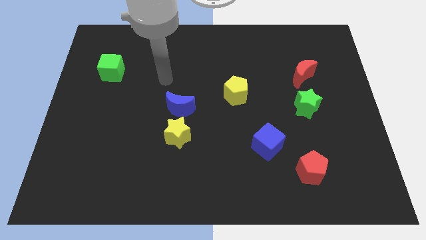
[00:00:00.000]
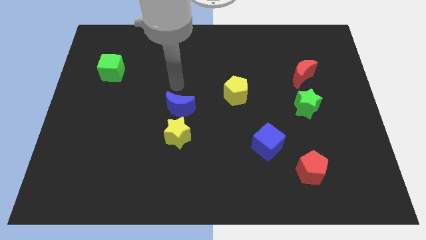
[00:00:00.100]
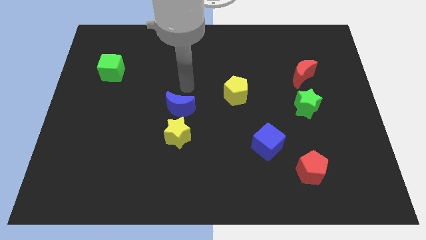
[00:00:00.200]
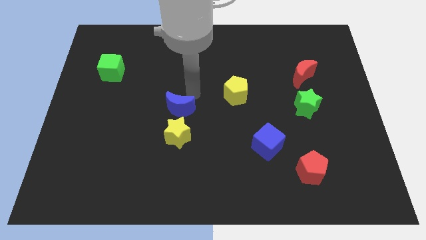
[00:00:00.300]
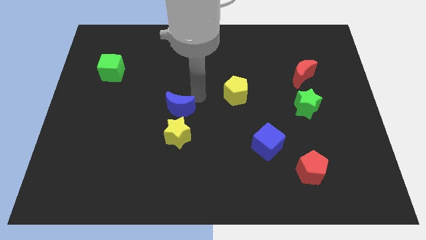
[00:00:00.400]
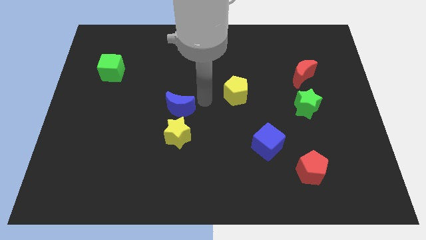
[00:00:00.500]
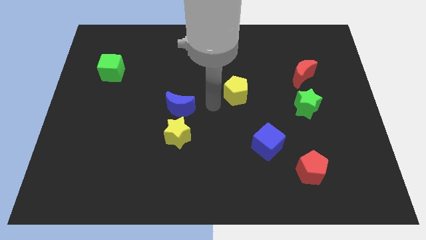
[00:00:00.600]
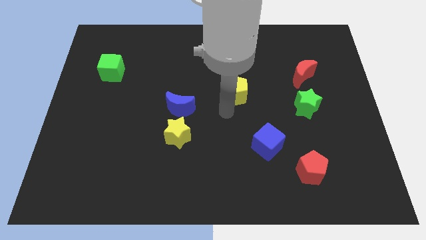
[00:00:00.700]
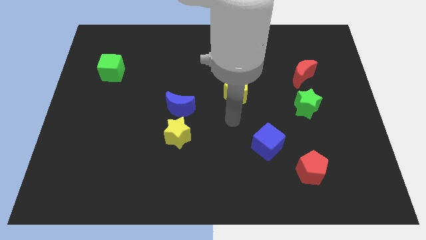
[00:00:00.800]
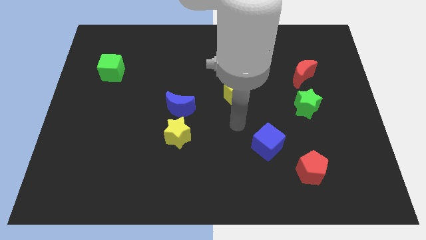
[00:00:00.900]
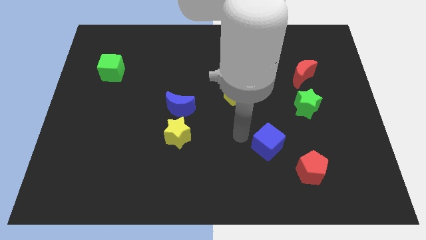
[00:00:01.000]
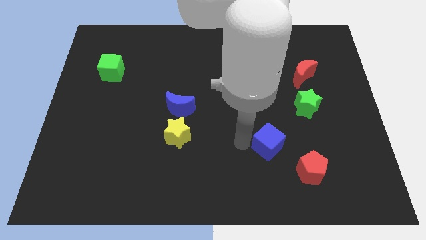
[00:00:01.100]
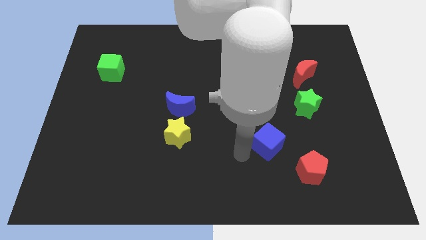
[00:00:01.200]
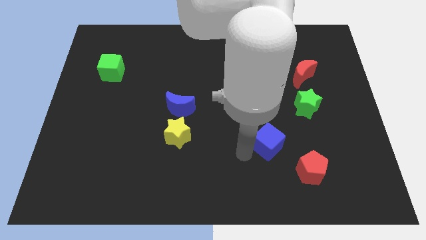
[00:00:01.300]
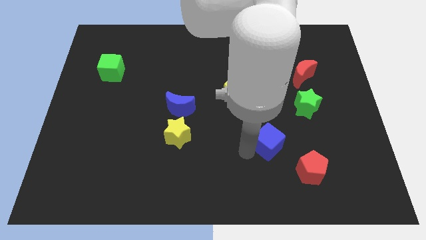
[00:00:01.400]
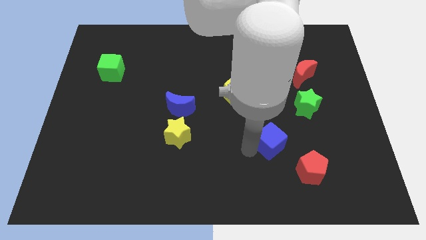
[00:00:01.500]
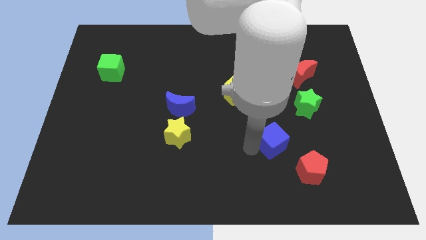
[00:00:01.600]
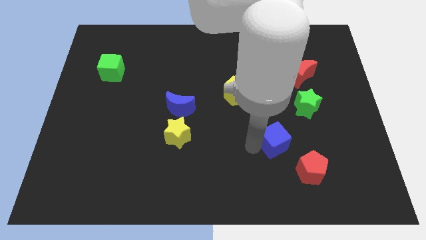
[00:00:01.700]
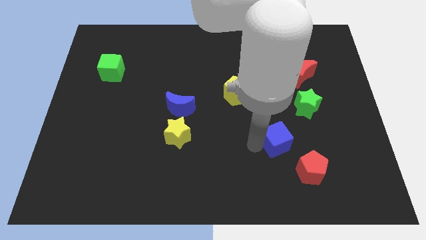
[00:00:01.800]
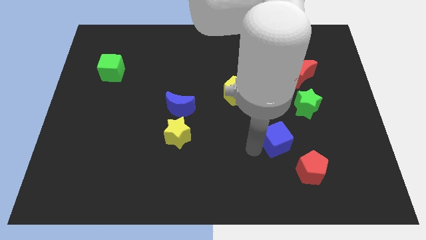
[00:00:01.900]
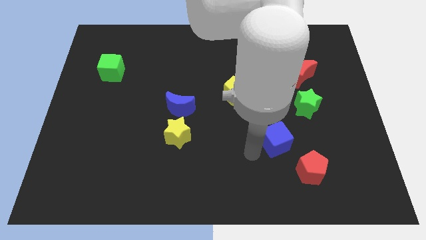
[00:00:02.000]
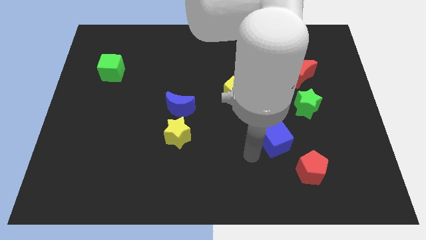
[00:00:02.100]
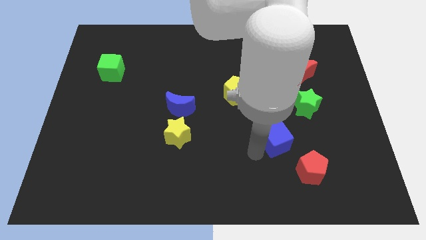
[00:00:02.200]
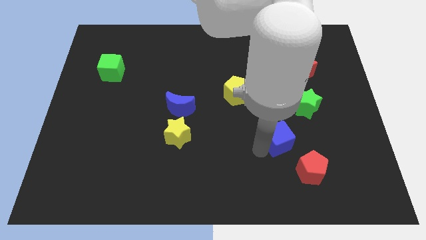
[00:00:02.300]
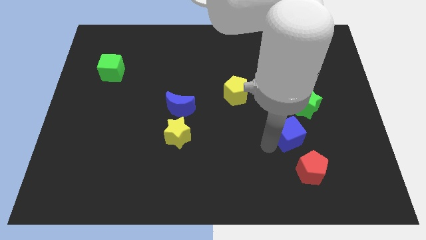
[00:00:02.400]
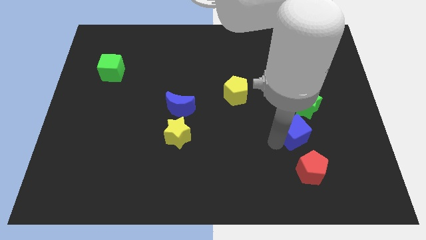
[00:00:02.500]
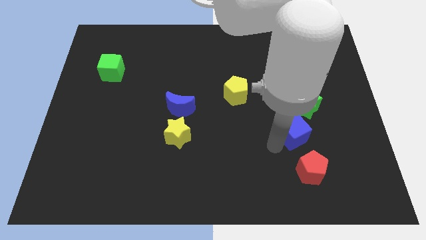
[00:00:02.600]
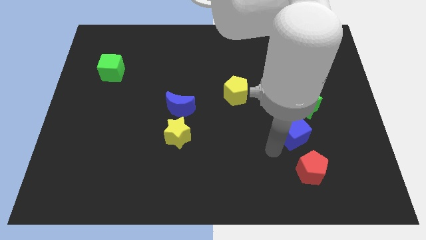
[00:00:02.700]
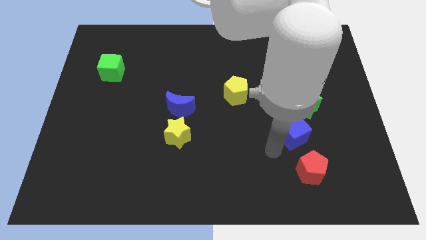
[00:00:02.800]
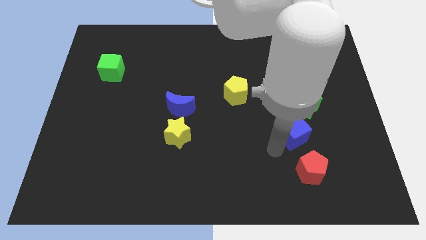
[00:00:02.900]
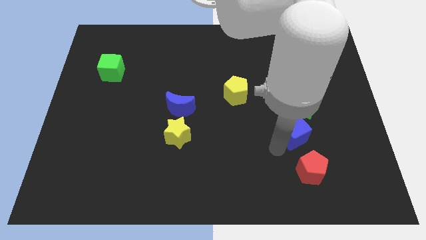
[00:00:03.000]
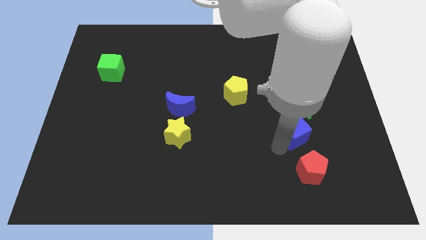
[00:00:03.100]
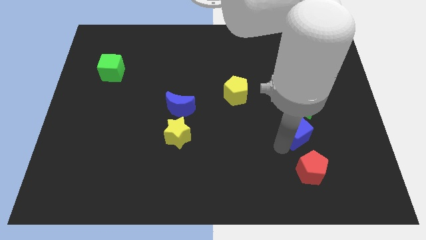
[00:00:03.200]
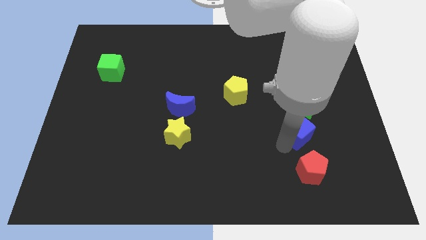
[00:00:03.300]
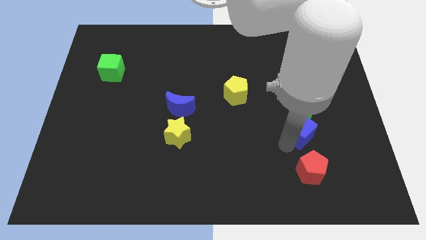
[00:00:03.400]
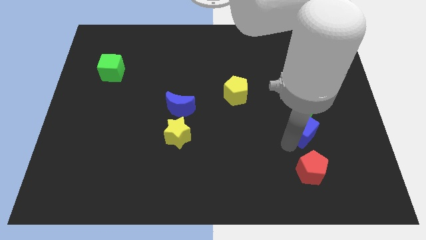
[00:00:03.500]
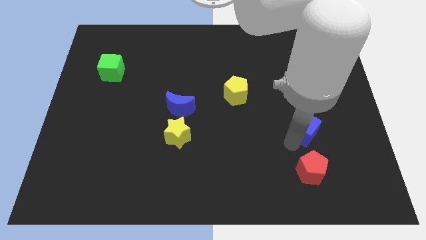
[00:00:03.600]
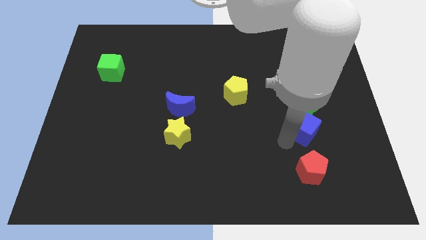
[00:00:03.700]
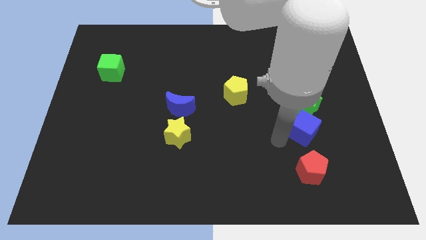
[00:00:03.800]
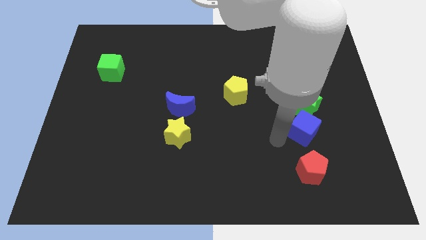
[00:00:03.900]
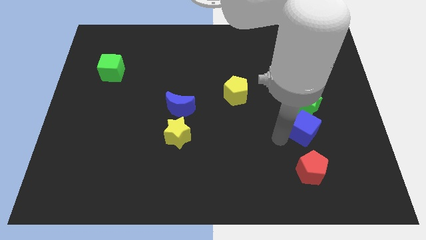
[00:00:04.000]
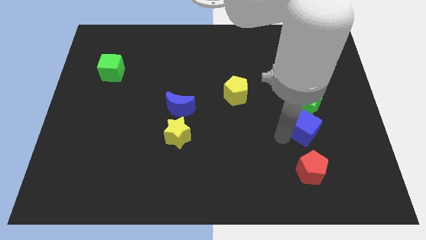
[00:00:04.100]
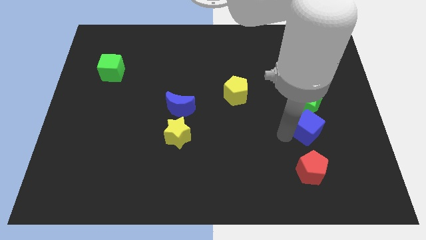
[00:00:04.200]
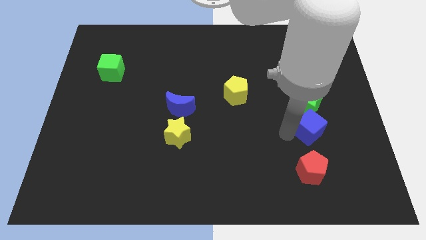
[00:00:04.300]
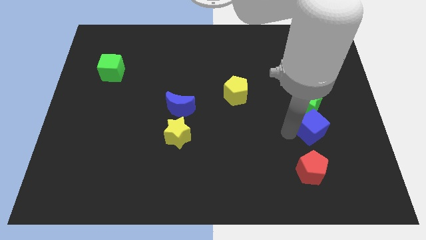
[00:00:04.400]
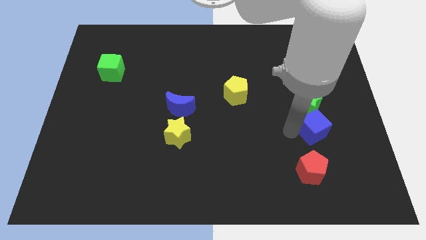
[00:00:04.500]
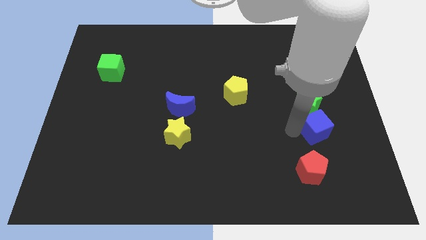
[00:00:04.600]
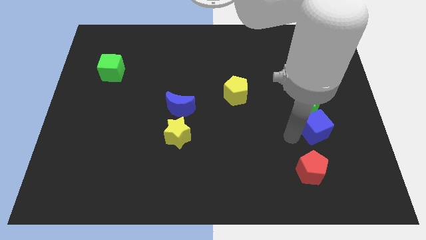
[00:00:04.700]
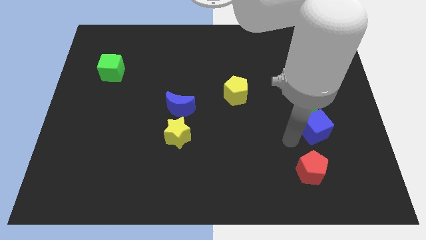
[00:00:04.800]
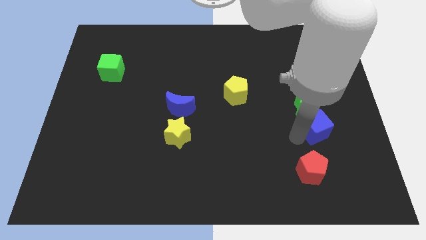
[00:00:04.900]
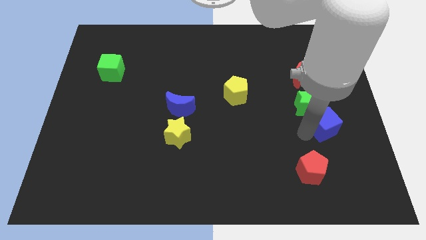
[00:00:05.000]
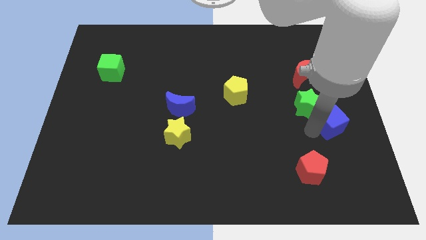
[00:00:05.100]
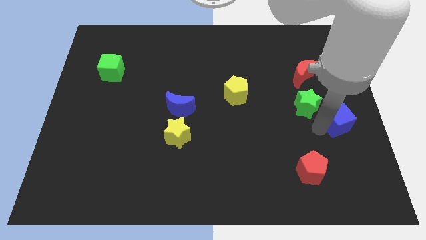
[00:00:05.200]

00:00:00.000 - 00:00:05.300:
slide the blue cube to the right side

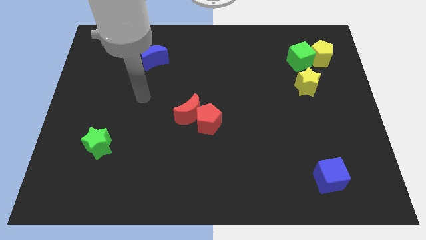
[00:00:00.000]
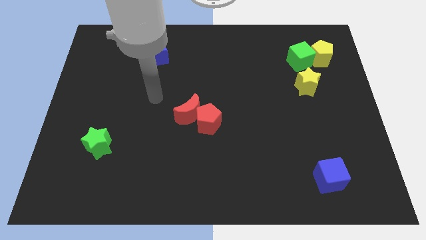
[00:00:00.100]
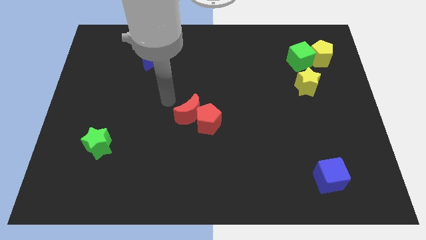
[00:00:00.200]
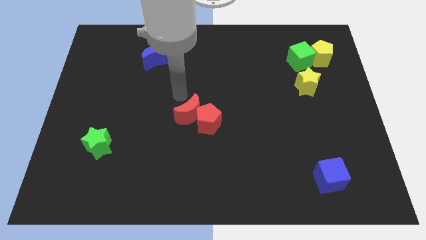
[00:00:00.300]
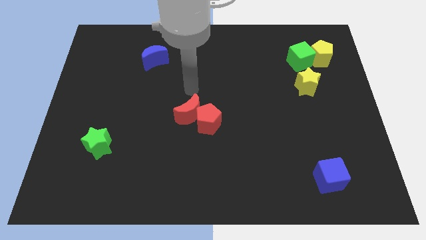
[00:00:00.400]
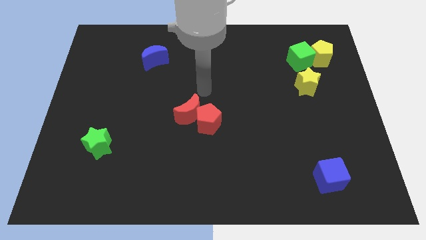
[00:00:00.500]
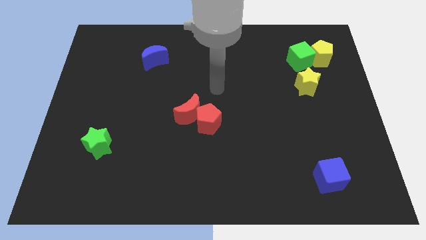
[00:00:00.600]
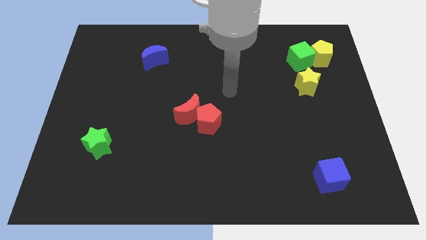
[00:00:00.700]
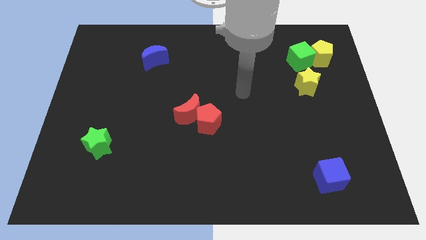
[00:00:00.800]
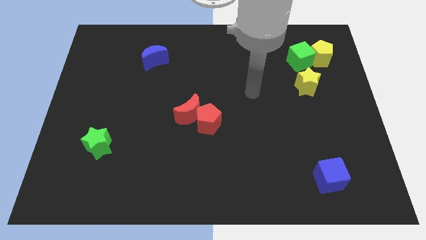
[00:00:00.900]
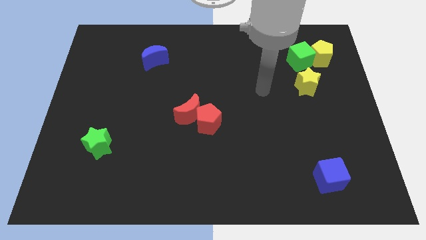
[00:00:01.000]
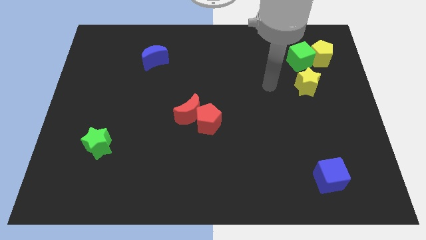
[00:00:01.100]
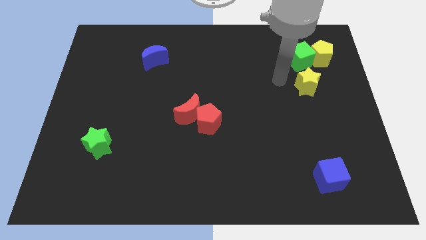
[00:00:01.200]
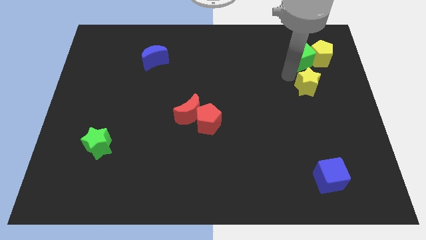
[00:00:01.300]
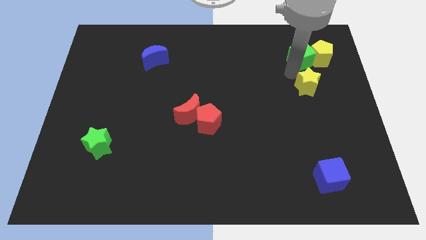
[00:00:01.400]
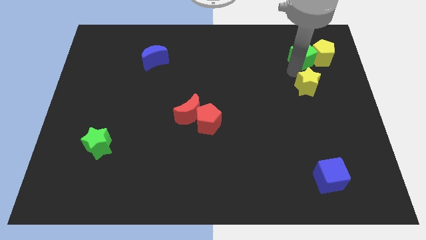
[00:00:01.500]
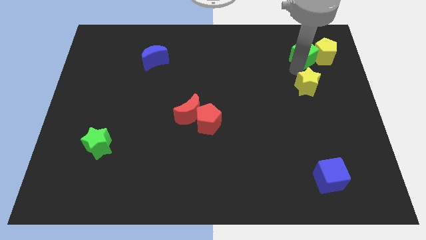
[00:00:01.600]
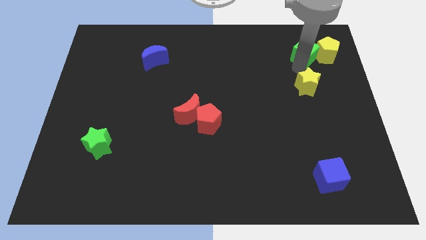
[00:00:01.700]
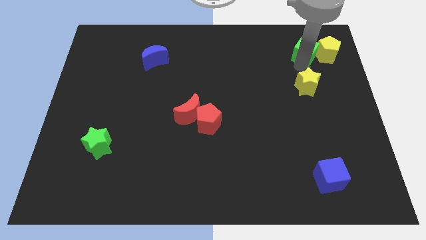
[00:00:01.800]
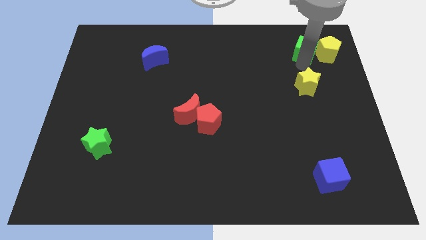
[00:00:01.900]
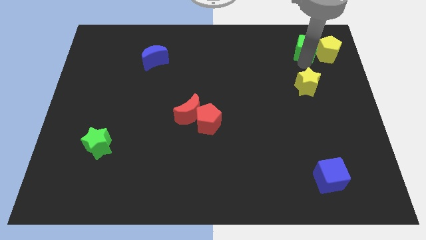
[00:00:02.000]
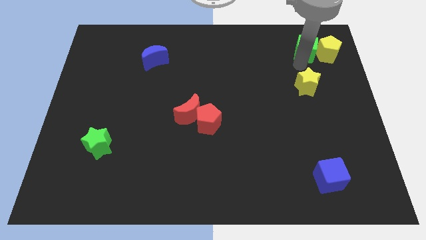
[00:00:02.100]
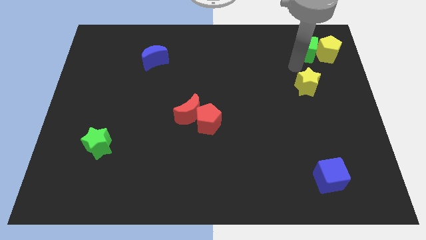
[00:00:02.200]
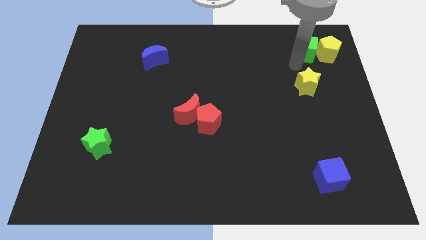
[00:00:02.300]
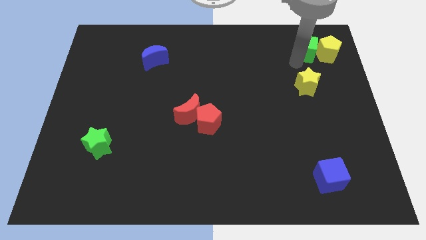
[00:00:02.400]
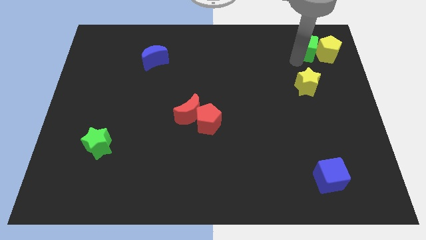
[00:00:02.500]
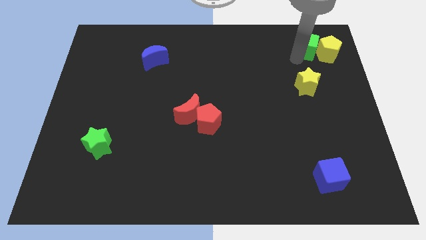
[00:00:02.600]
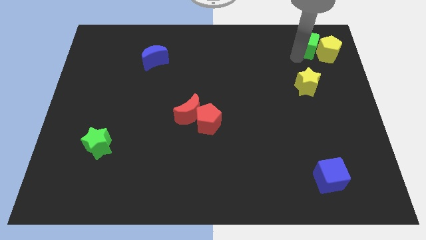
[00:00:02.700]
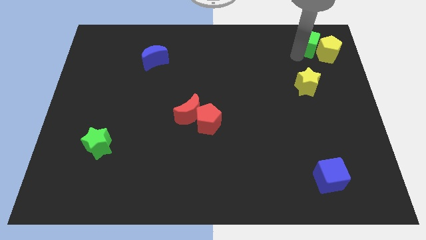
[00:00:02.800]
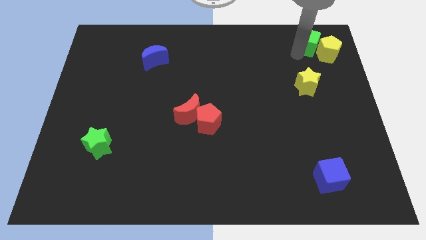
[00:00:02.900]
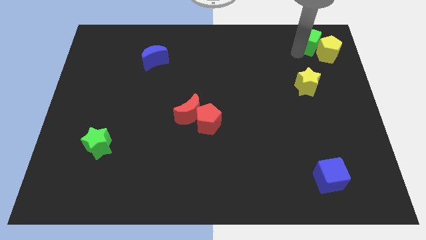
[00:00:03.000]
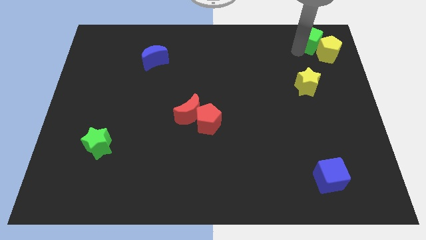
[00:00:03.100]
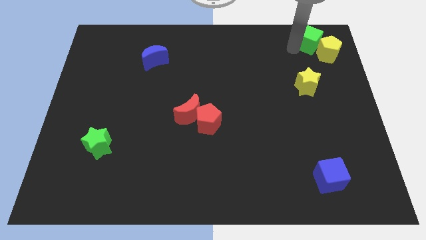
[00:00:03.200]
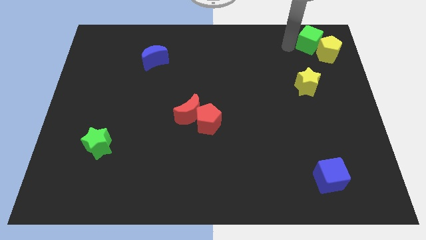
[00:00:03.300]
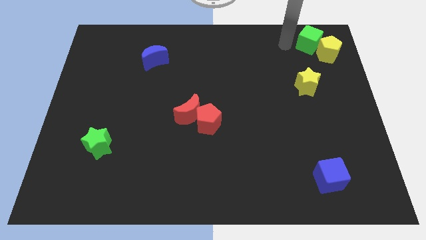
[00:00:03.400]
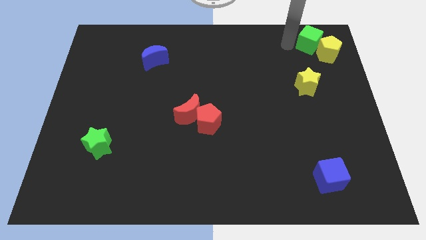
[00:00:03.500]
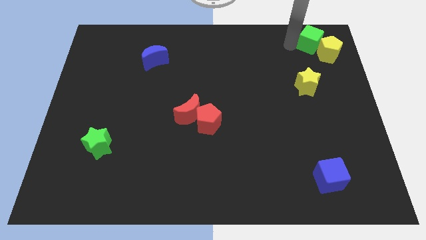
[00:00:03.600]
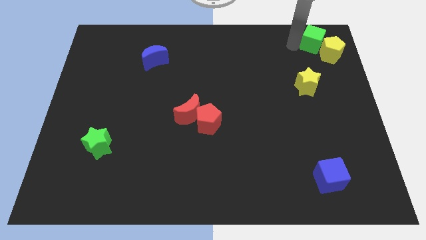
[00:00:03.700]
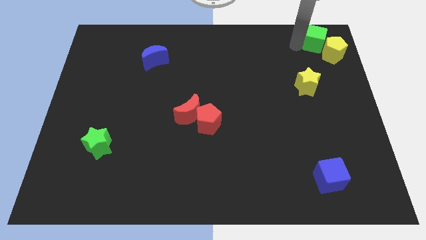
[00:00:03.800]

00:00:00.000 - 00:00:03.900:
slide the green cube to the top right
